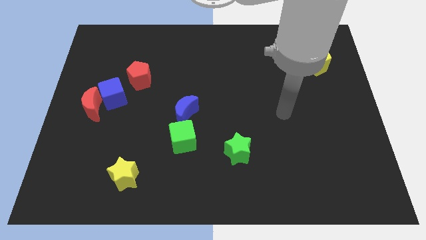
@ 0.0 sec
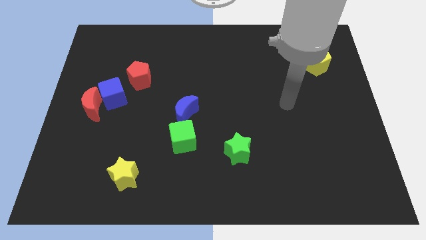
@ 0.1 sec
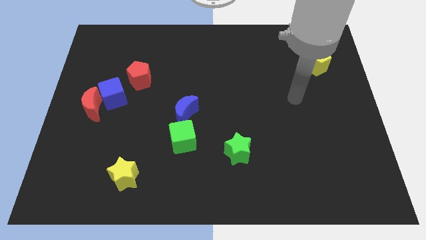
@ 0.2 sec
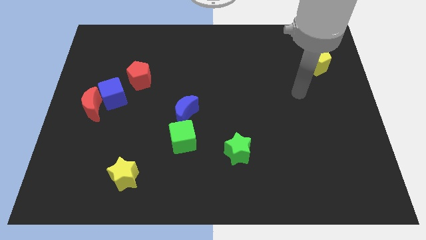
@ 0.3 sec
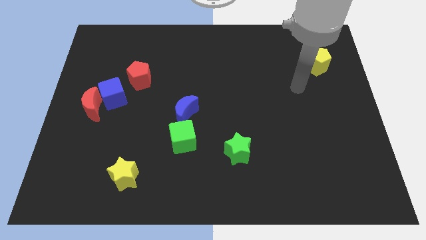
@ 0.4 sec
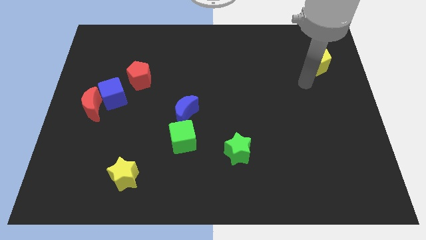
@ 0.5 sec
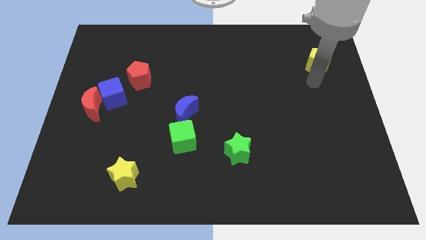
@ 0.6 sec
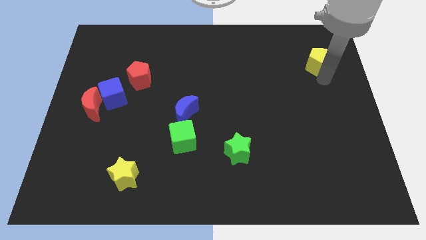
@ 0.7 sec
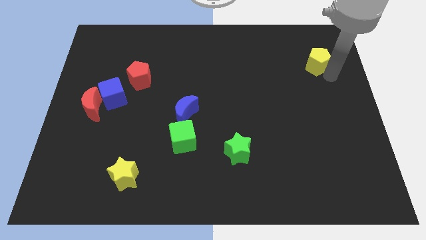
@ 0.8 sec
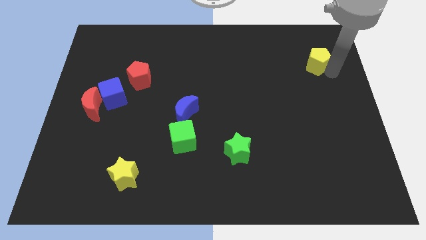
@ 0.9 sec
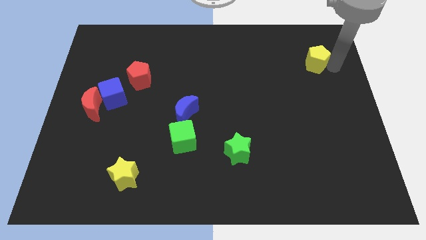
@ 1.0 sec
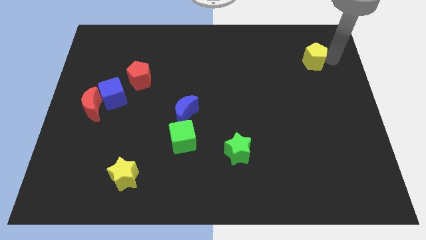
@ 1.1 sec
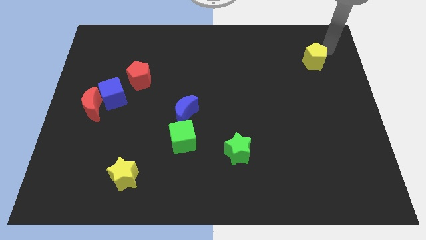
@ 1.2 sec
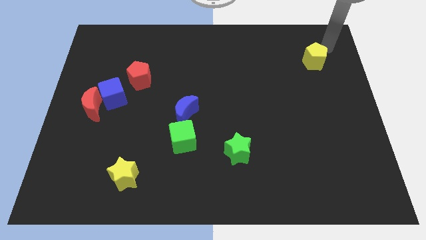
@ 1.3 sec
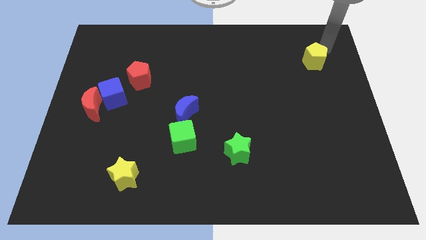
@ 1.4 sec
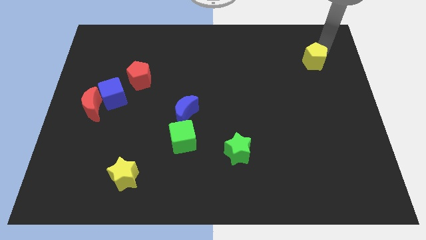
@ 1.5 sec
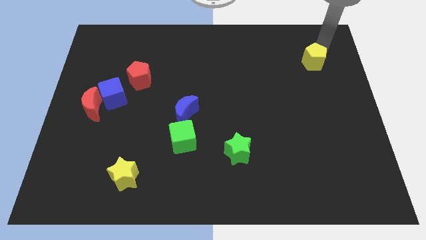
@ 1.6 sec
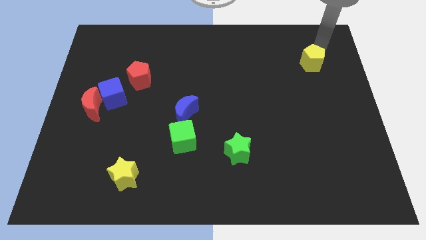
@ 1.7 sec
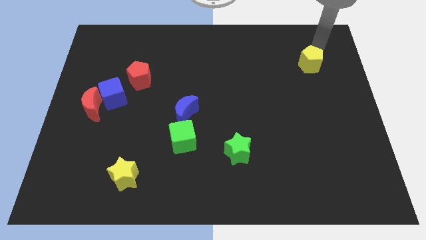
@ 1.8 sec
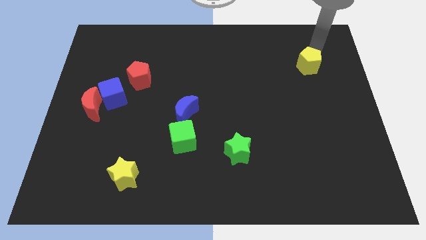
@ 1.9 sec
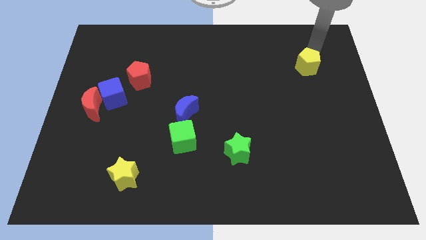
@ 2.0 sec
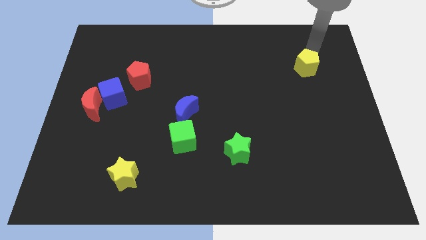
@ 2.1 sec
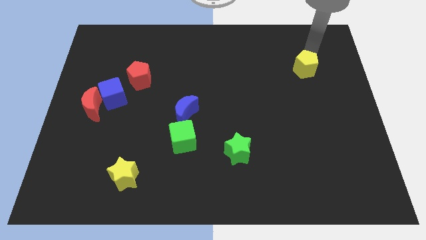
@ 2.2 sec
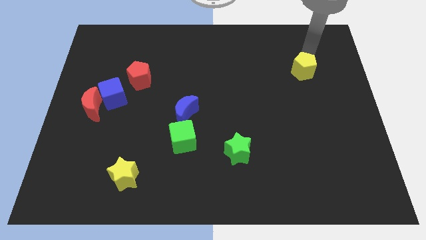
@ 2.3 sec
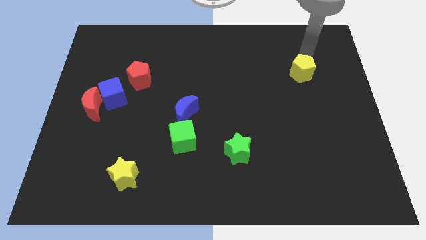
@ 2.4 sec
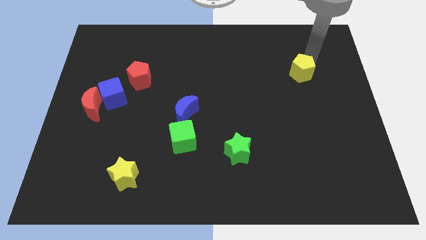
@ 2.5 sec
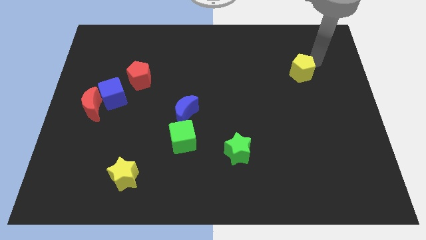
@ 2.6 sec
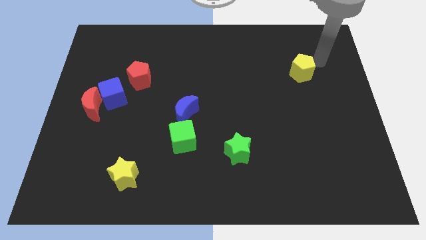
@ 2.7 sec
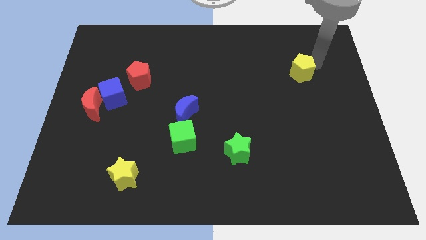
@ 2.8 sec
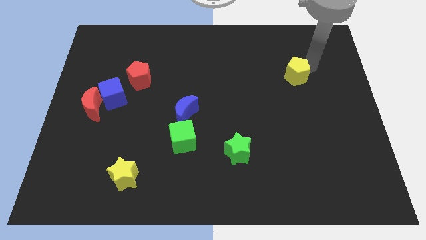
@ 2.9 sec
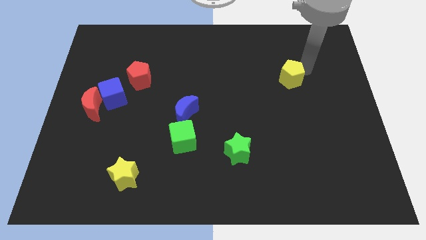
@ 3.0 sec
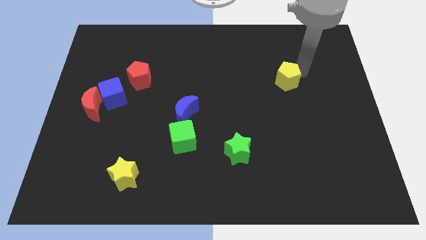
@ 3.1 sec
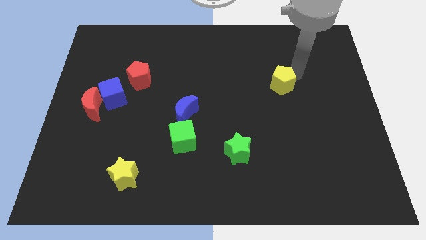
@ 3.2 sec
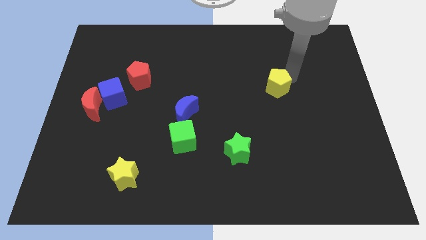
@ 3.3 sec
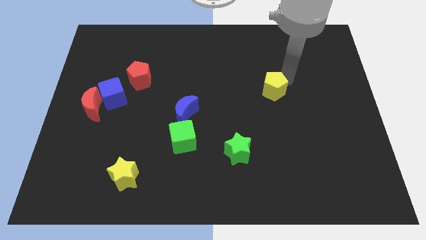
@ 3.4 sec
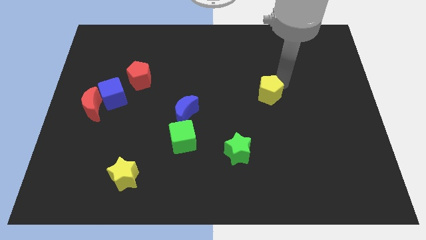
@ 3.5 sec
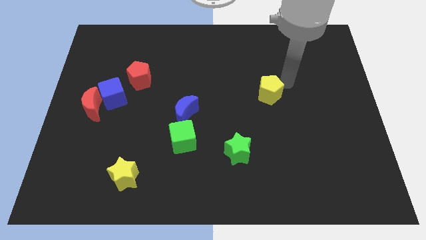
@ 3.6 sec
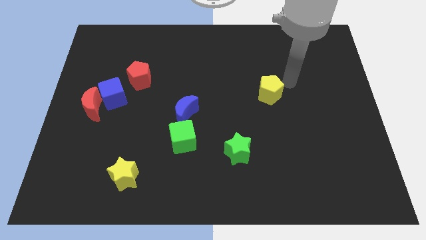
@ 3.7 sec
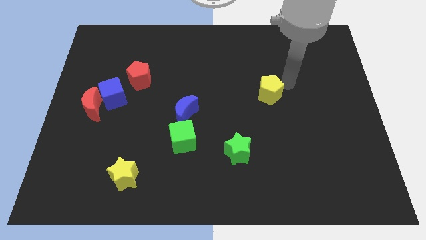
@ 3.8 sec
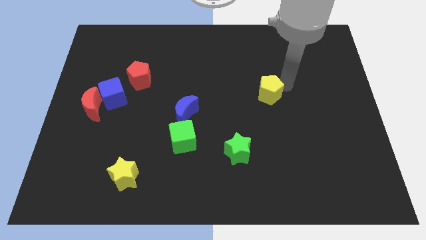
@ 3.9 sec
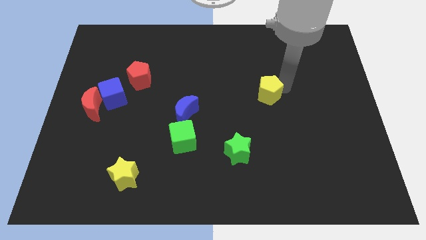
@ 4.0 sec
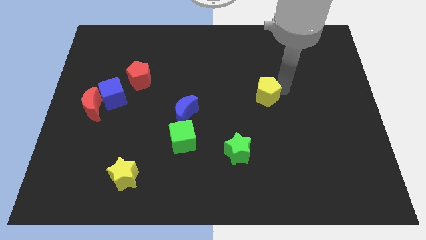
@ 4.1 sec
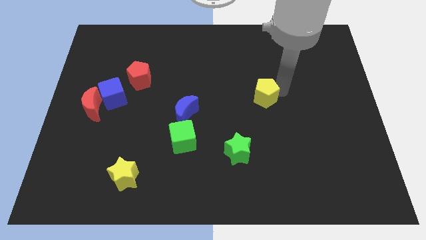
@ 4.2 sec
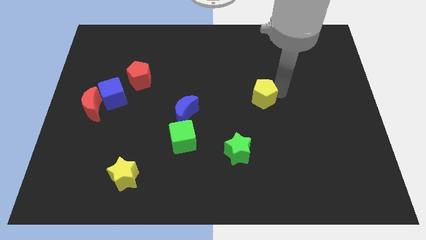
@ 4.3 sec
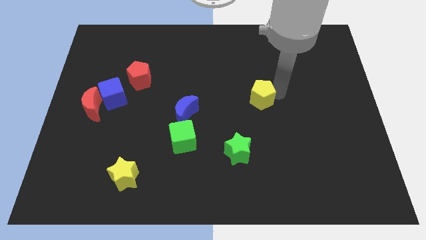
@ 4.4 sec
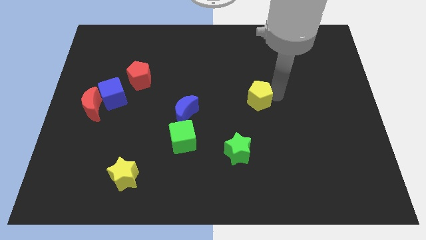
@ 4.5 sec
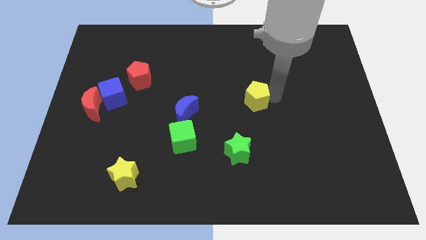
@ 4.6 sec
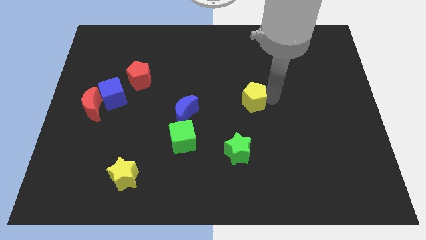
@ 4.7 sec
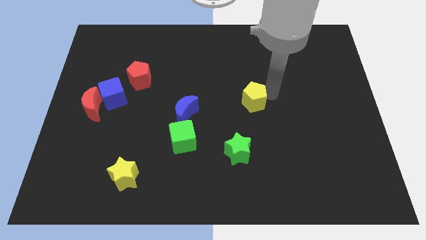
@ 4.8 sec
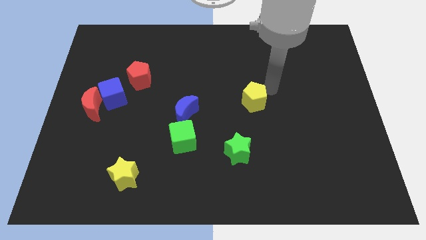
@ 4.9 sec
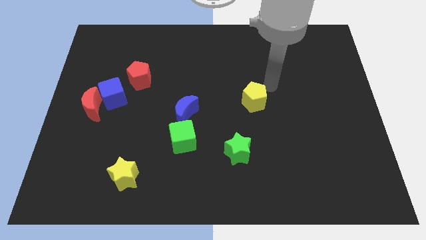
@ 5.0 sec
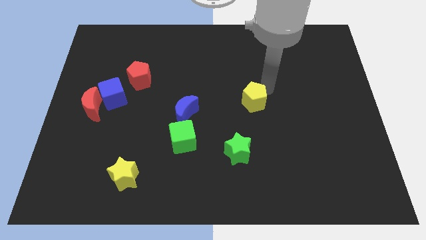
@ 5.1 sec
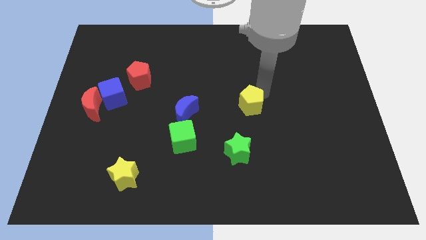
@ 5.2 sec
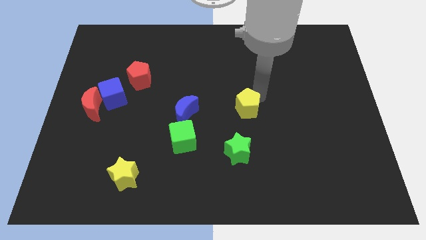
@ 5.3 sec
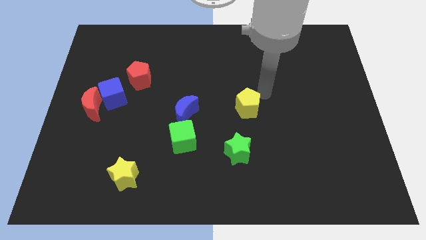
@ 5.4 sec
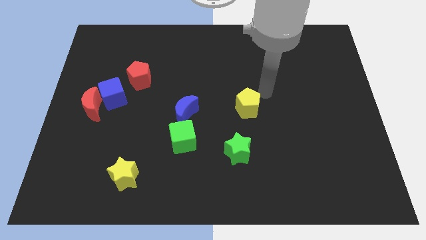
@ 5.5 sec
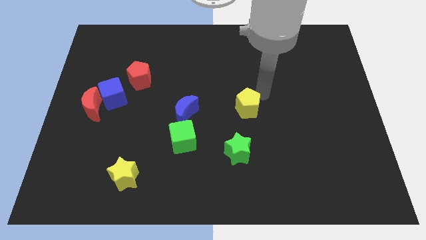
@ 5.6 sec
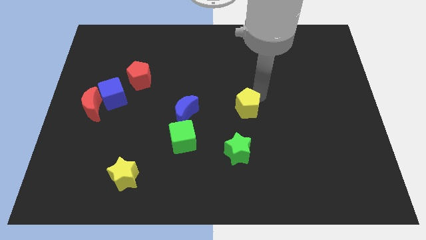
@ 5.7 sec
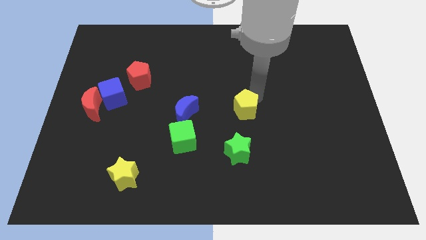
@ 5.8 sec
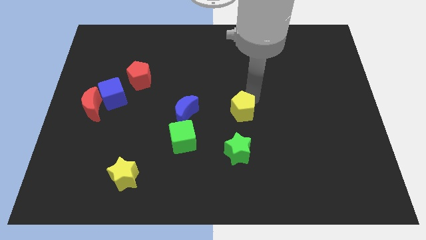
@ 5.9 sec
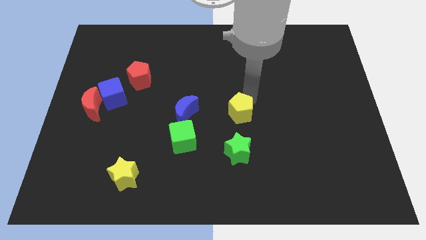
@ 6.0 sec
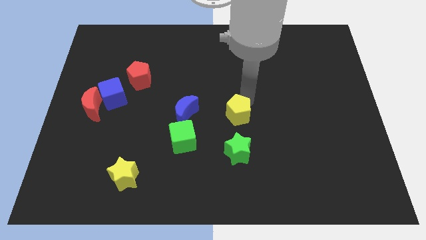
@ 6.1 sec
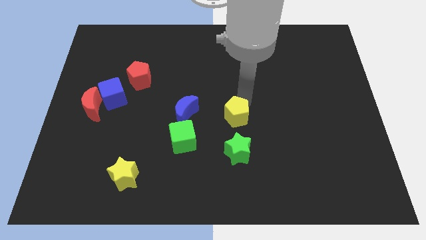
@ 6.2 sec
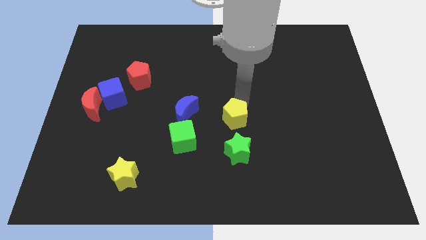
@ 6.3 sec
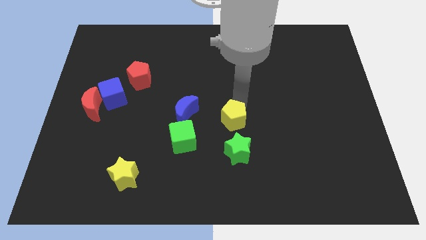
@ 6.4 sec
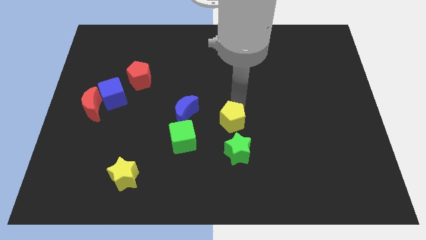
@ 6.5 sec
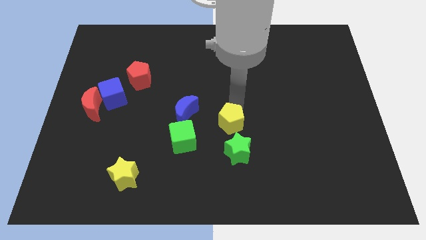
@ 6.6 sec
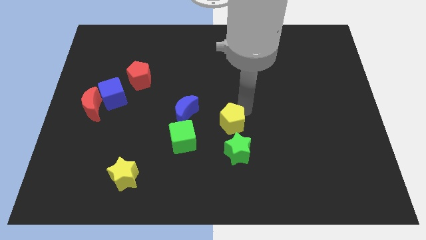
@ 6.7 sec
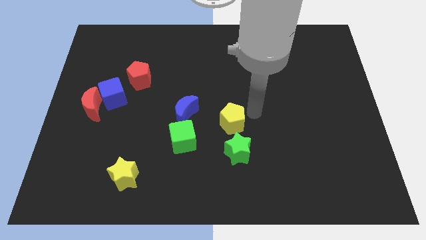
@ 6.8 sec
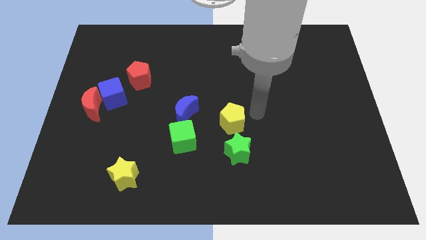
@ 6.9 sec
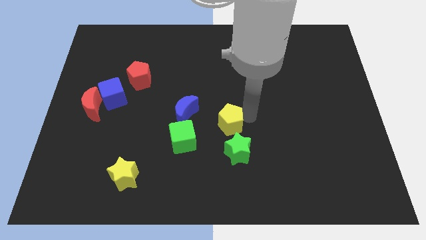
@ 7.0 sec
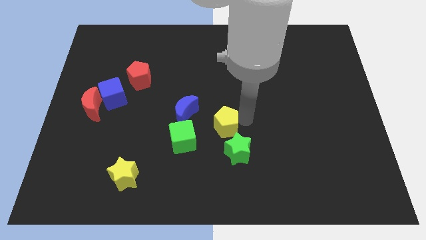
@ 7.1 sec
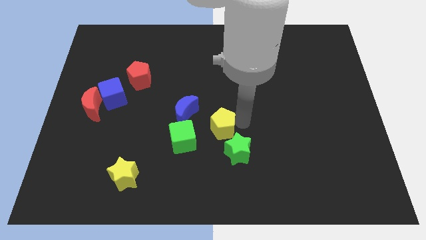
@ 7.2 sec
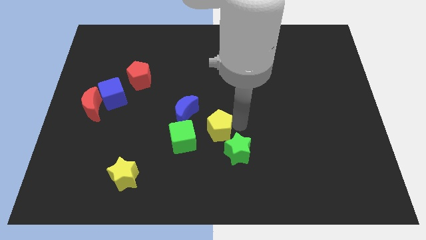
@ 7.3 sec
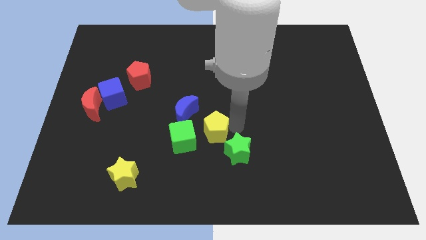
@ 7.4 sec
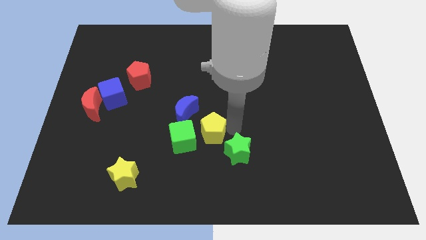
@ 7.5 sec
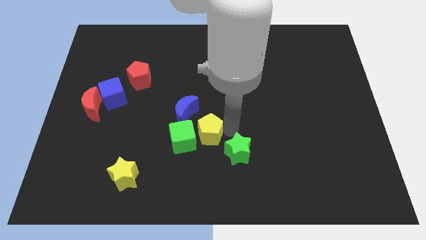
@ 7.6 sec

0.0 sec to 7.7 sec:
push the yellow pentagon to the green cube
